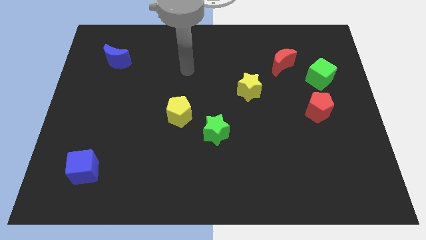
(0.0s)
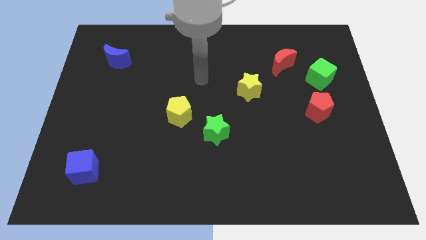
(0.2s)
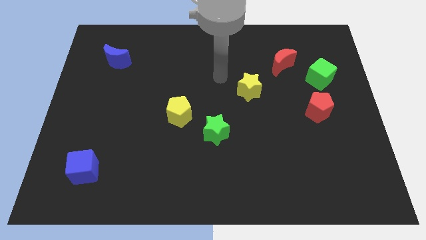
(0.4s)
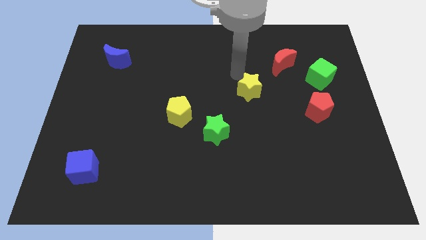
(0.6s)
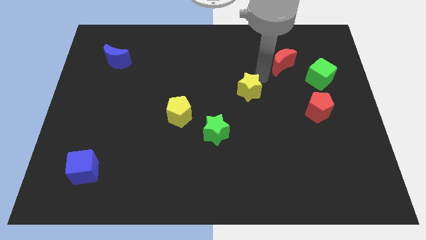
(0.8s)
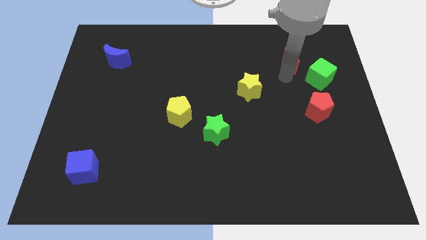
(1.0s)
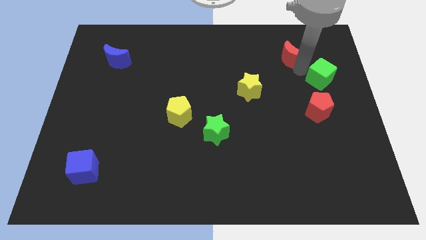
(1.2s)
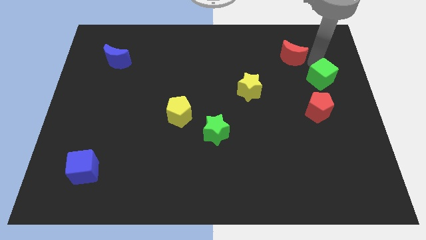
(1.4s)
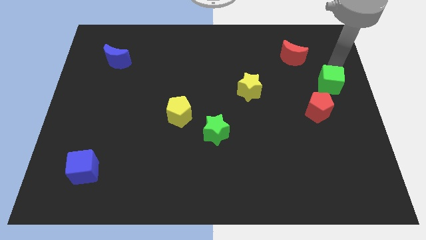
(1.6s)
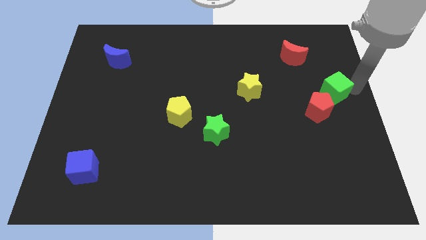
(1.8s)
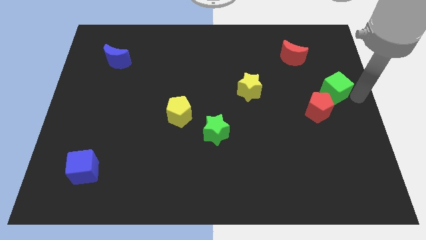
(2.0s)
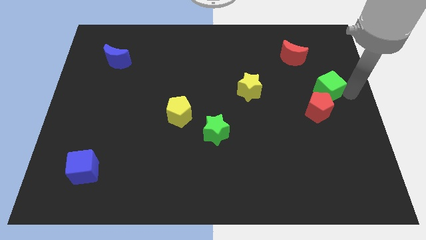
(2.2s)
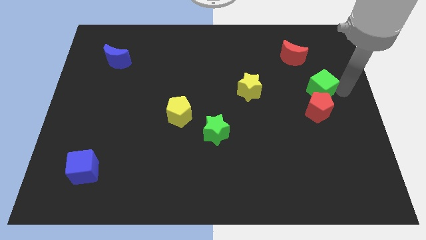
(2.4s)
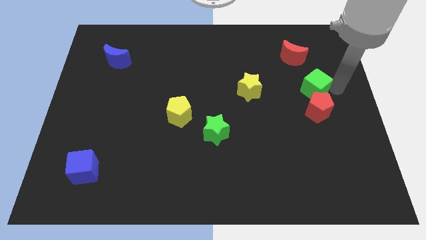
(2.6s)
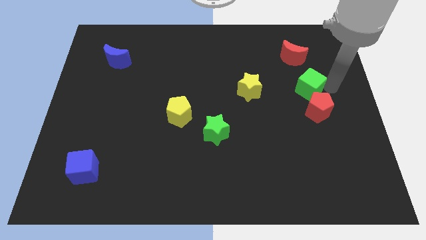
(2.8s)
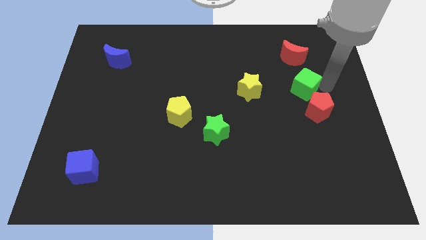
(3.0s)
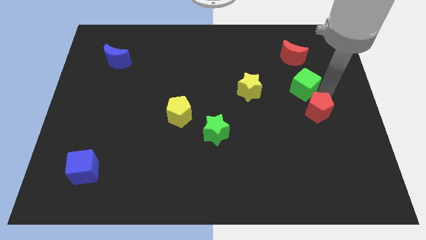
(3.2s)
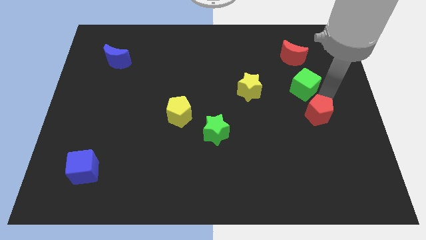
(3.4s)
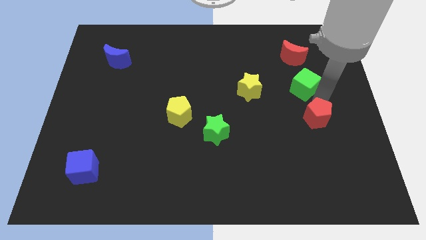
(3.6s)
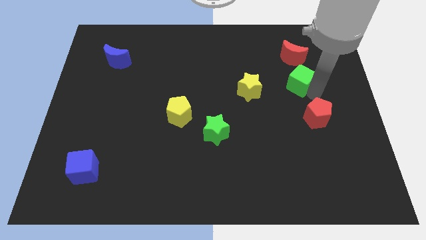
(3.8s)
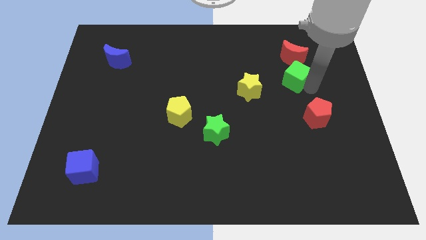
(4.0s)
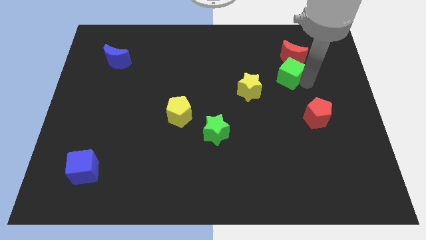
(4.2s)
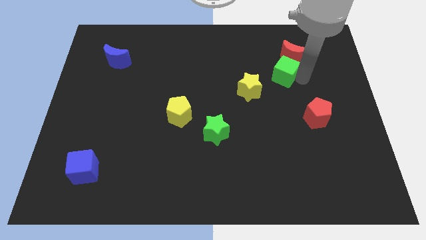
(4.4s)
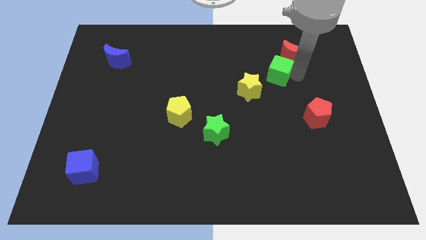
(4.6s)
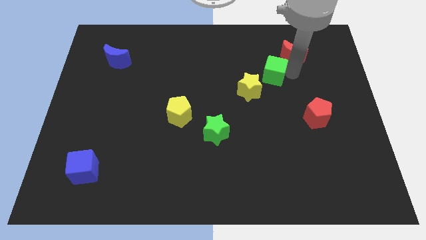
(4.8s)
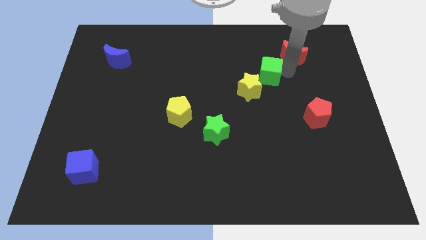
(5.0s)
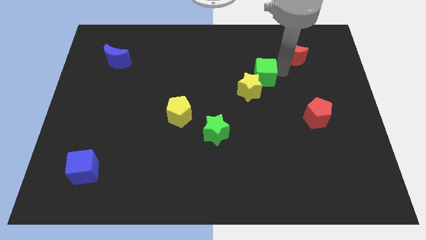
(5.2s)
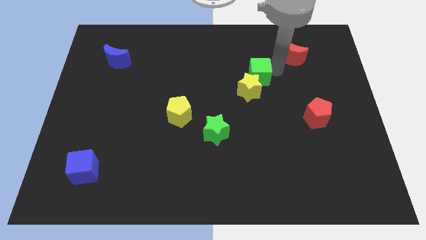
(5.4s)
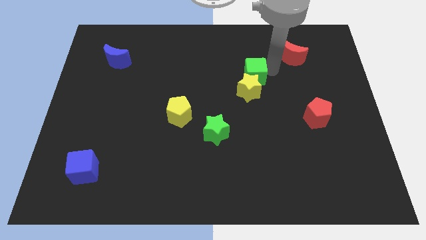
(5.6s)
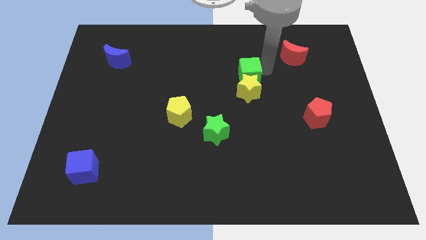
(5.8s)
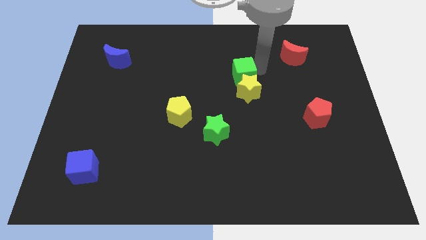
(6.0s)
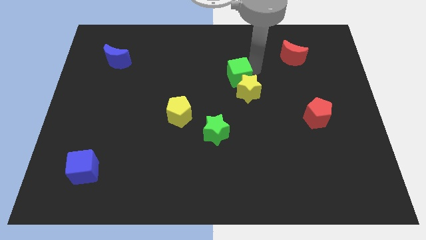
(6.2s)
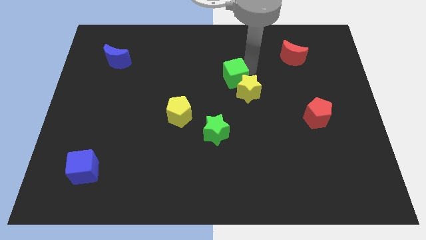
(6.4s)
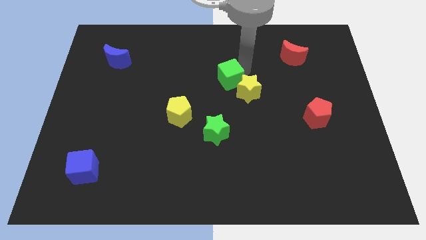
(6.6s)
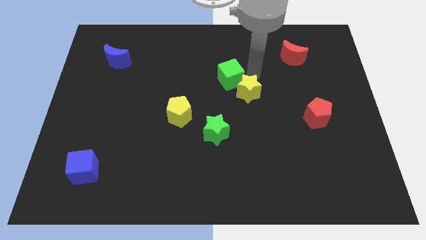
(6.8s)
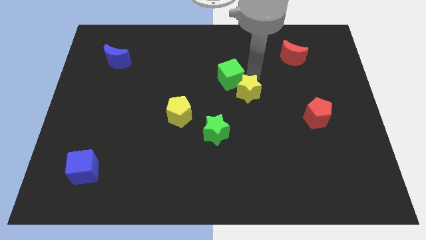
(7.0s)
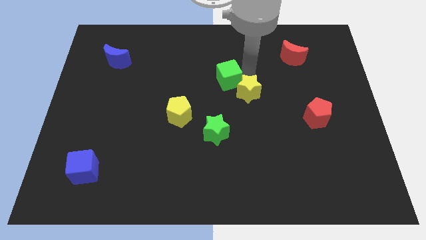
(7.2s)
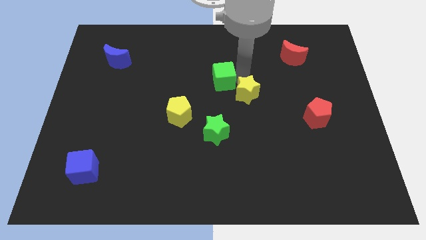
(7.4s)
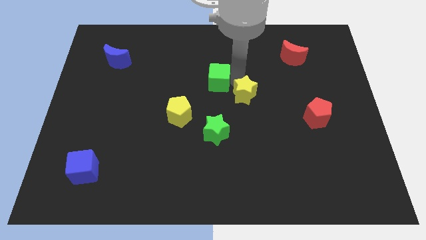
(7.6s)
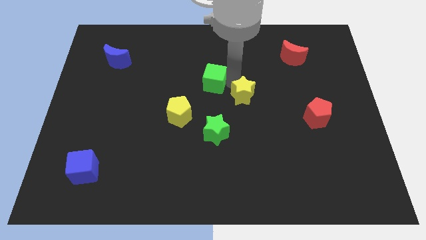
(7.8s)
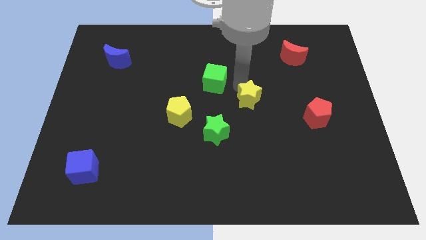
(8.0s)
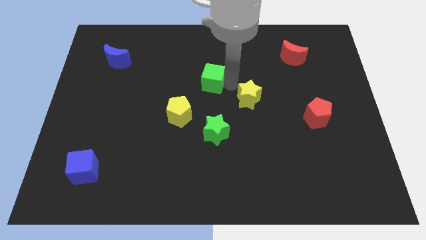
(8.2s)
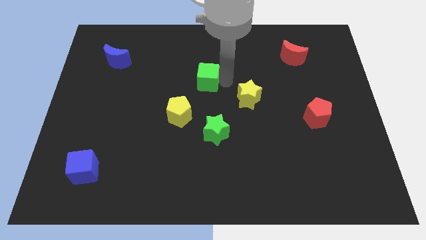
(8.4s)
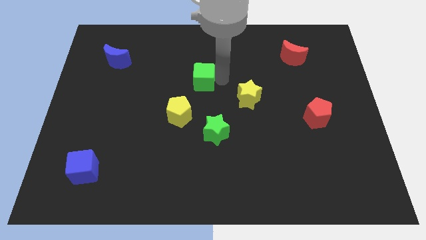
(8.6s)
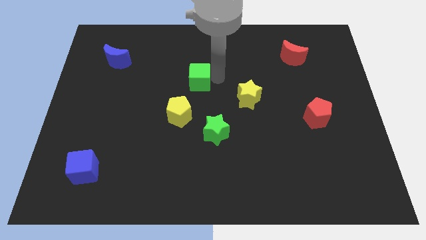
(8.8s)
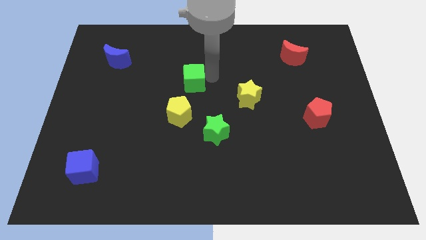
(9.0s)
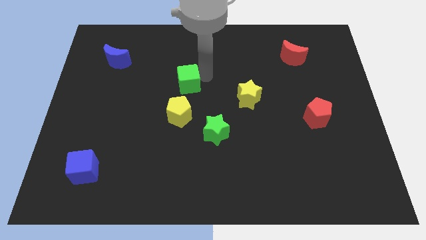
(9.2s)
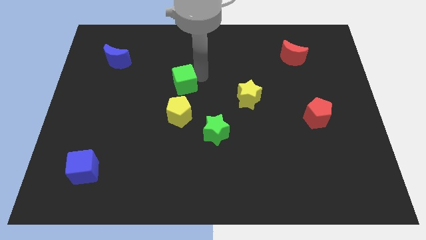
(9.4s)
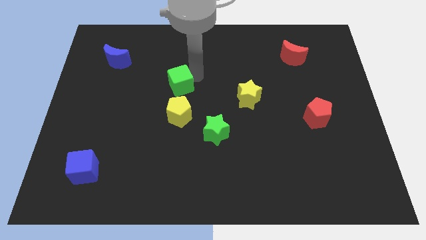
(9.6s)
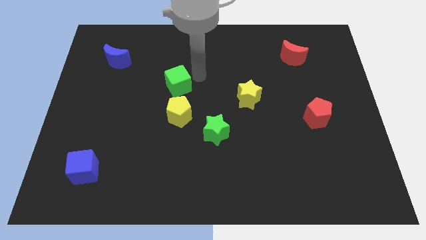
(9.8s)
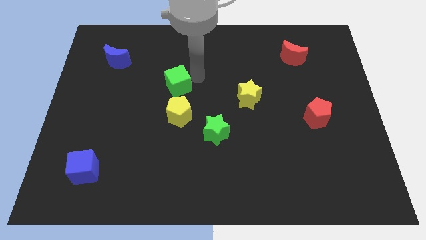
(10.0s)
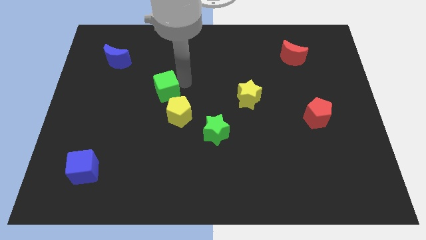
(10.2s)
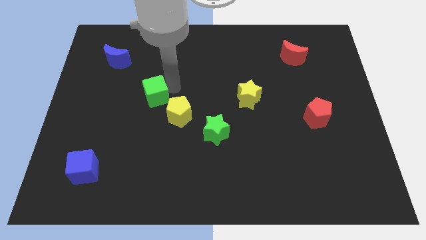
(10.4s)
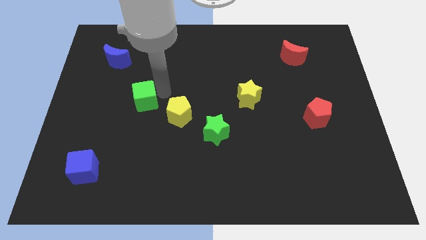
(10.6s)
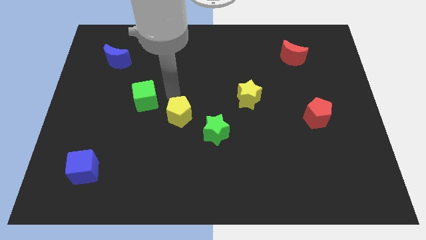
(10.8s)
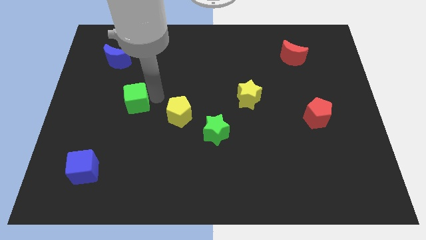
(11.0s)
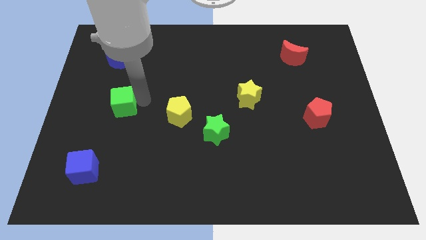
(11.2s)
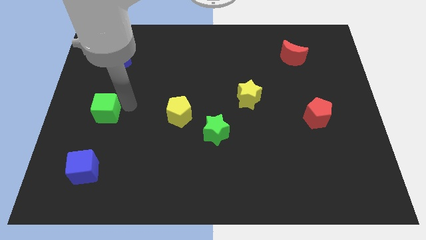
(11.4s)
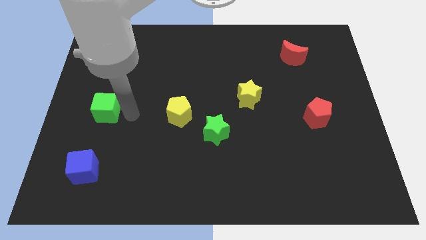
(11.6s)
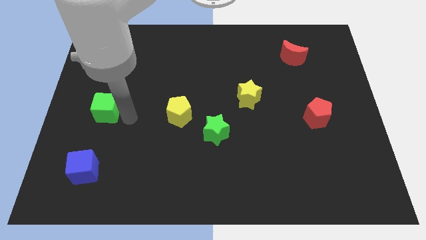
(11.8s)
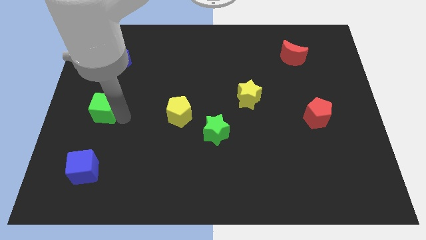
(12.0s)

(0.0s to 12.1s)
slide the green cube to the left side of the board
